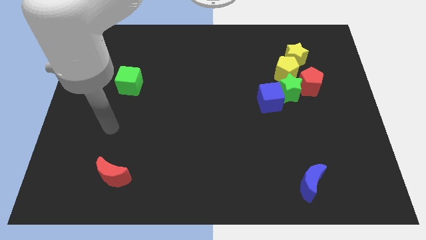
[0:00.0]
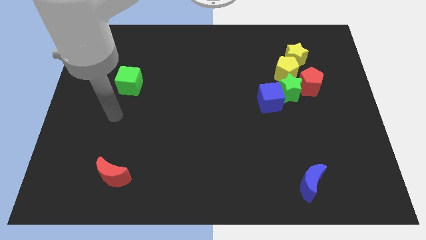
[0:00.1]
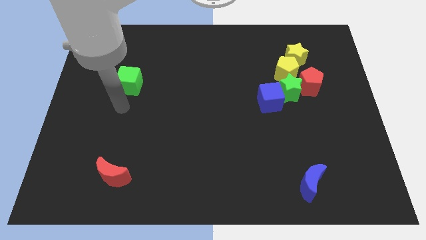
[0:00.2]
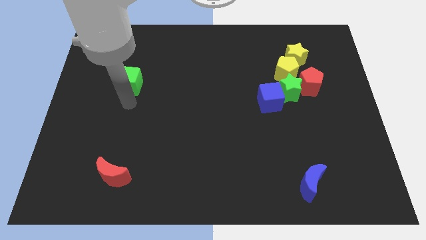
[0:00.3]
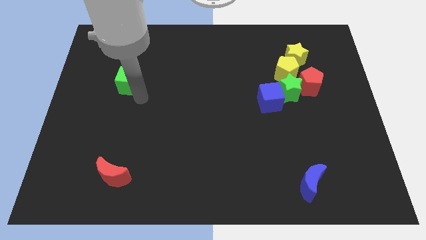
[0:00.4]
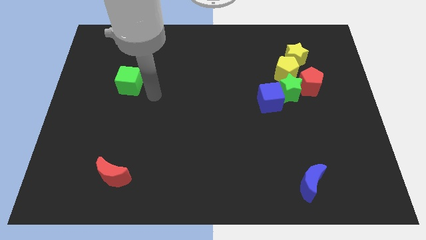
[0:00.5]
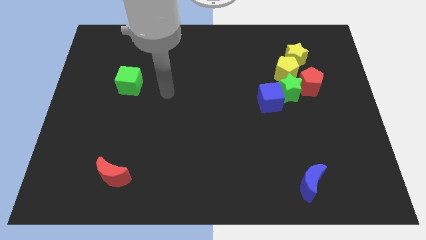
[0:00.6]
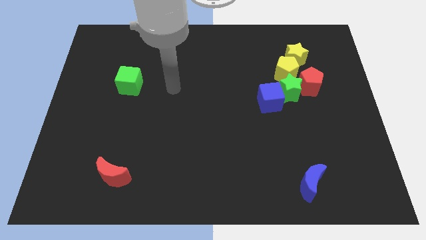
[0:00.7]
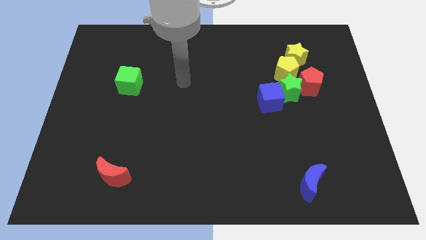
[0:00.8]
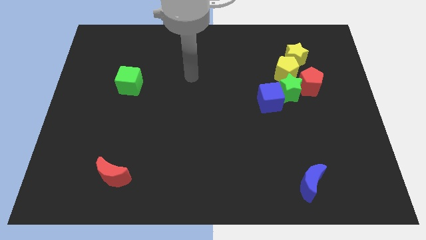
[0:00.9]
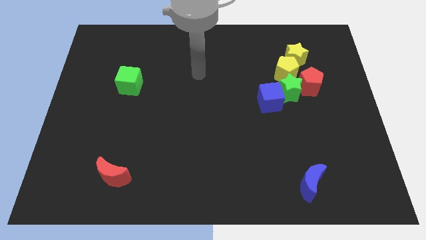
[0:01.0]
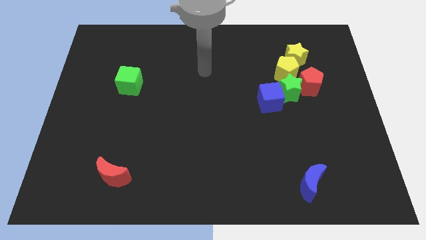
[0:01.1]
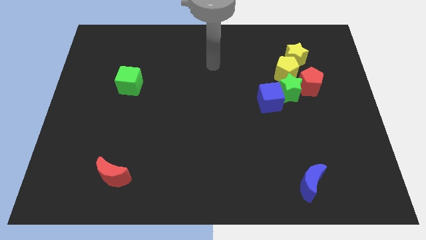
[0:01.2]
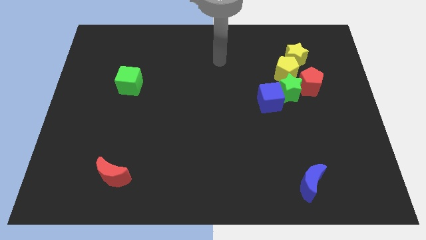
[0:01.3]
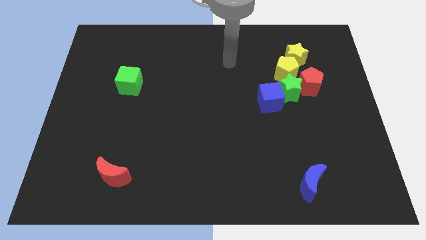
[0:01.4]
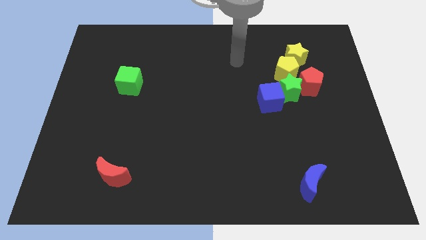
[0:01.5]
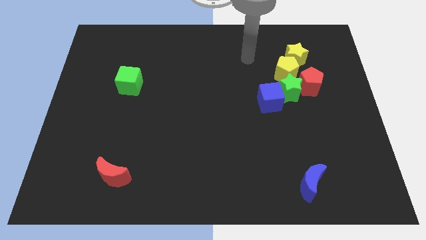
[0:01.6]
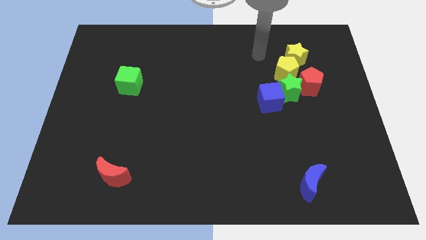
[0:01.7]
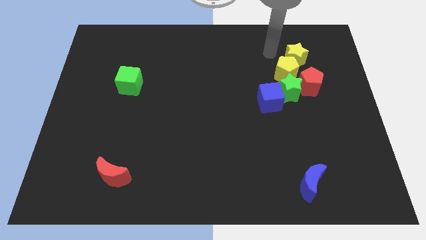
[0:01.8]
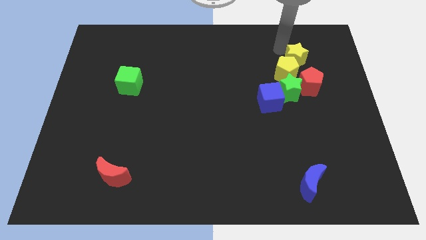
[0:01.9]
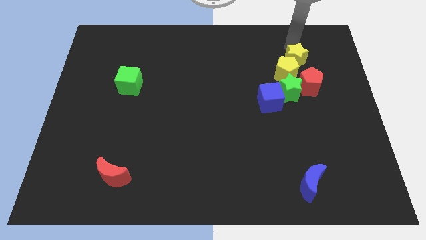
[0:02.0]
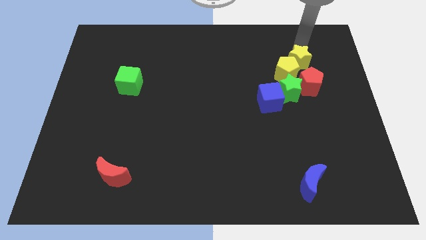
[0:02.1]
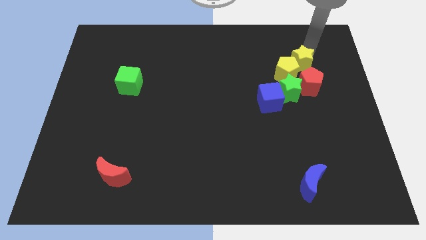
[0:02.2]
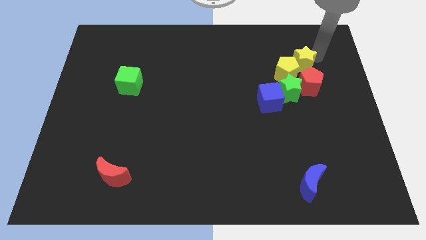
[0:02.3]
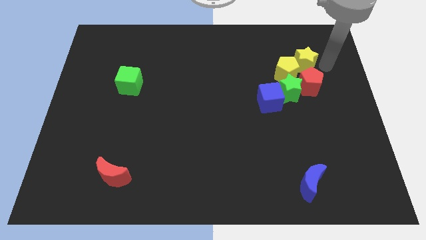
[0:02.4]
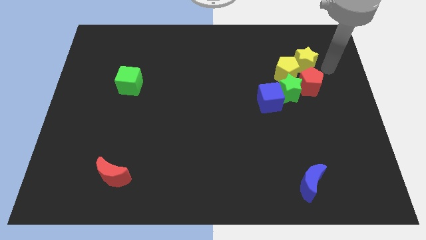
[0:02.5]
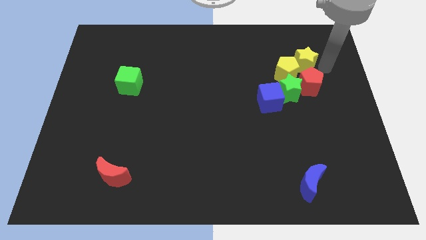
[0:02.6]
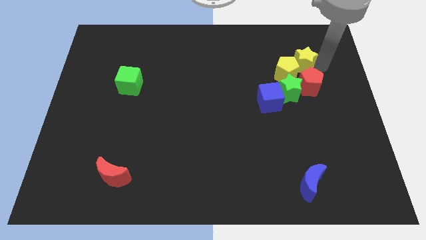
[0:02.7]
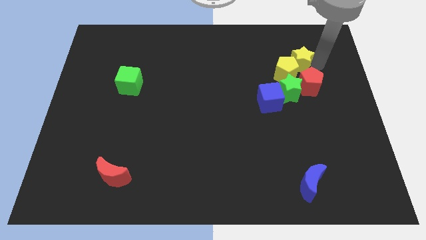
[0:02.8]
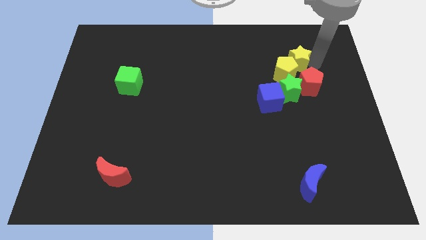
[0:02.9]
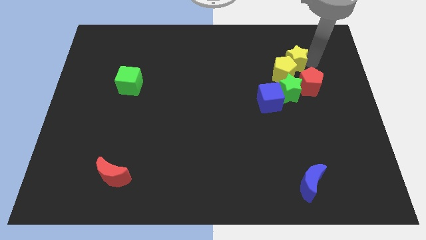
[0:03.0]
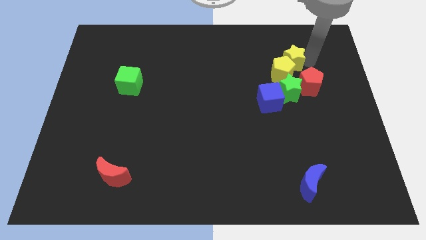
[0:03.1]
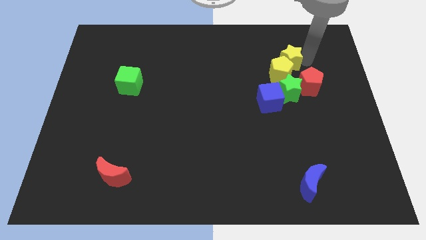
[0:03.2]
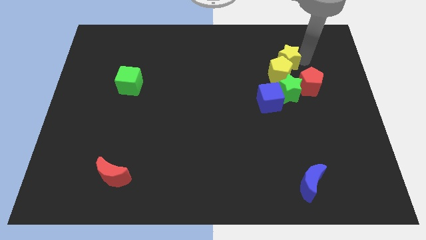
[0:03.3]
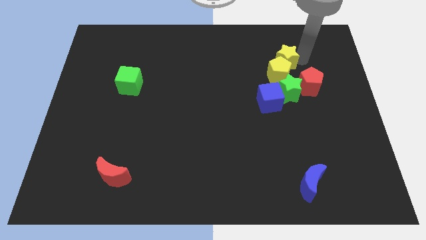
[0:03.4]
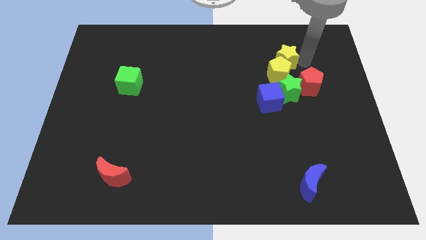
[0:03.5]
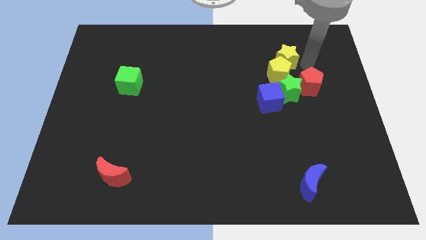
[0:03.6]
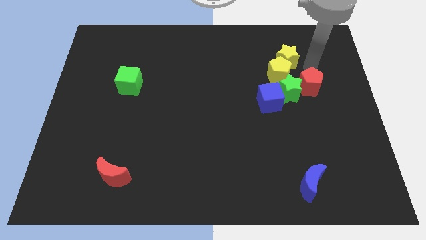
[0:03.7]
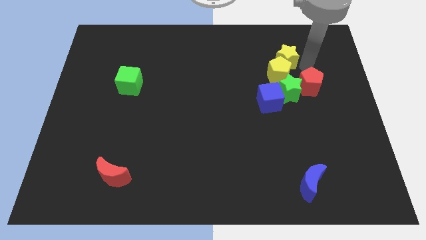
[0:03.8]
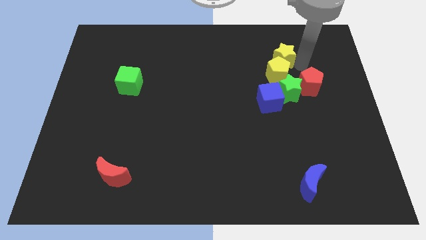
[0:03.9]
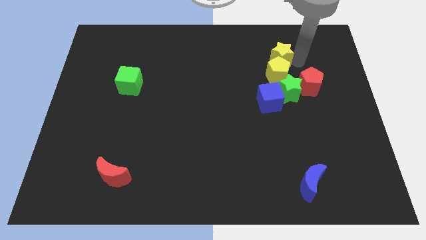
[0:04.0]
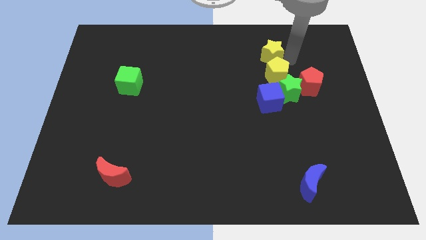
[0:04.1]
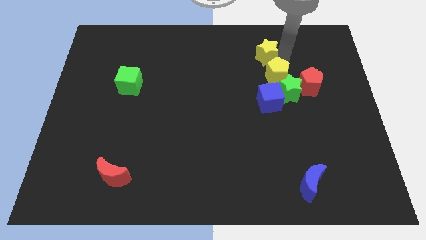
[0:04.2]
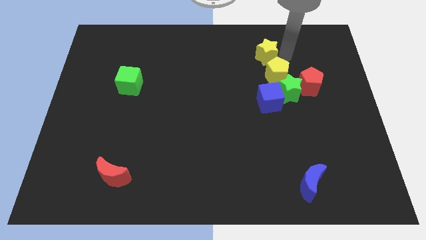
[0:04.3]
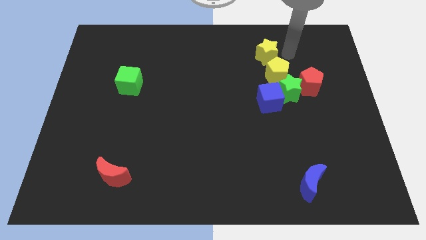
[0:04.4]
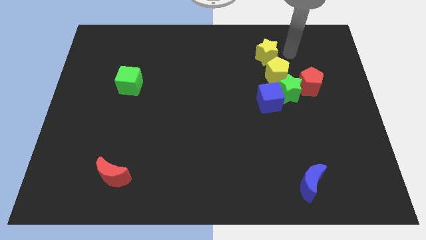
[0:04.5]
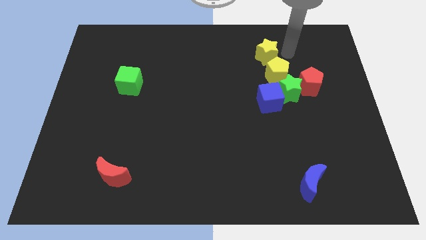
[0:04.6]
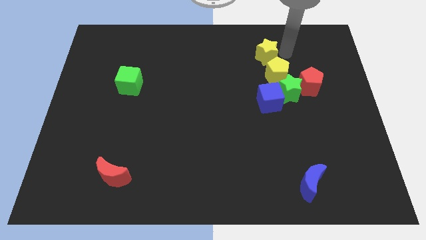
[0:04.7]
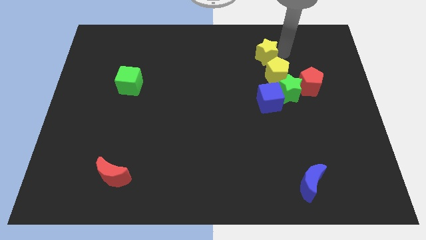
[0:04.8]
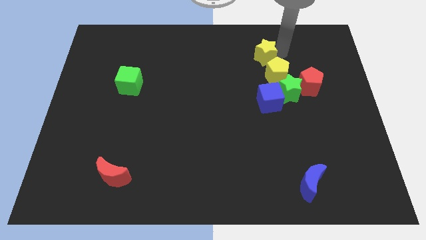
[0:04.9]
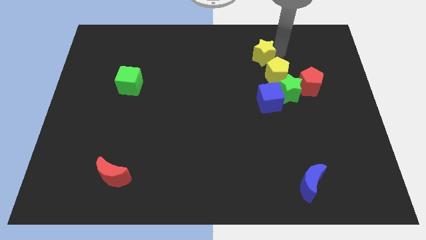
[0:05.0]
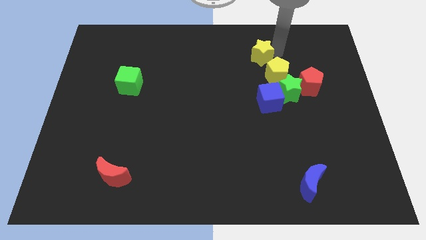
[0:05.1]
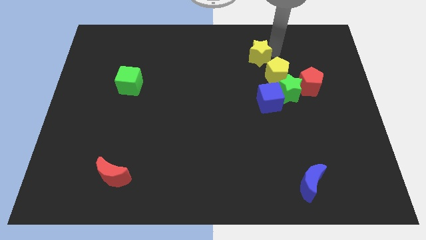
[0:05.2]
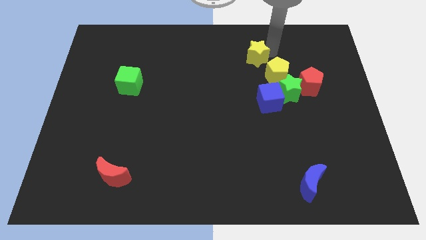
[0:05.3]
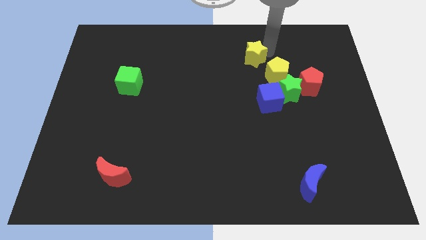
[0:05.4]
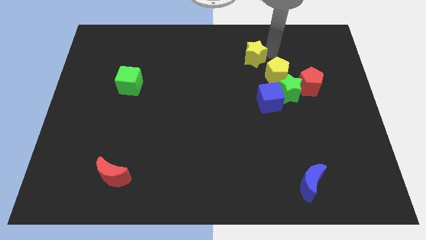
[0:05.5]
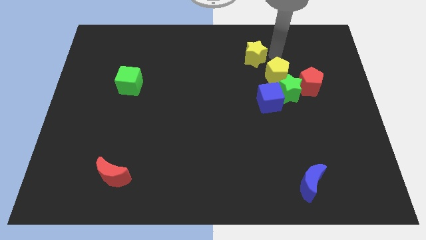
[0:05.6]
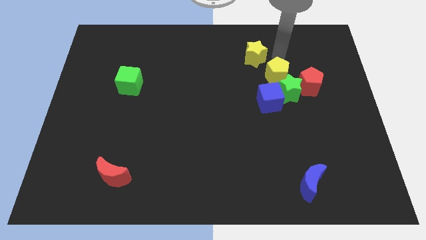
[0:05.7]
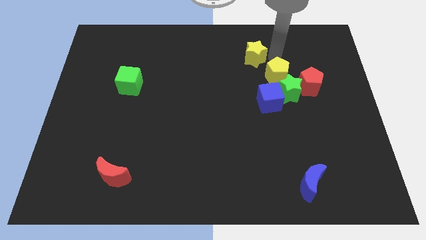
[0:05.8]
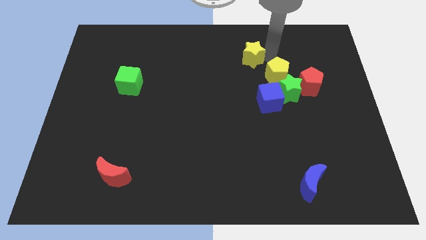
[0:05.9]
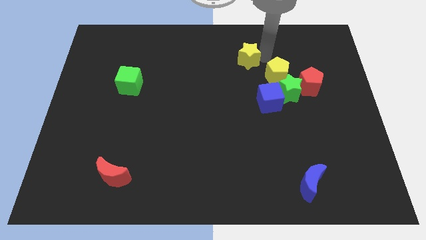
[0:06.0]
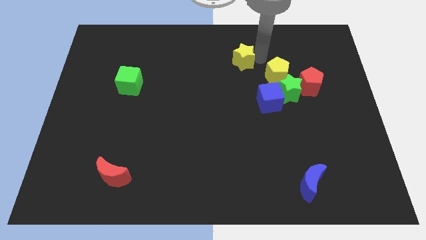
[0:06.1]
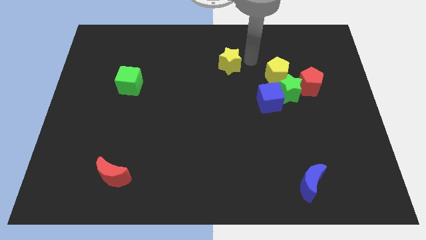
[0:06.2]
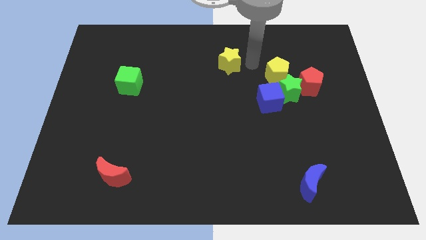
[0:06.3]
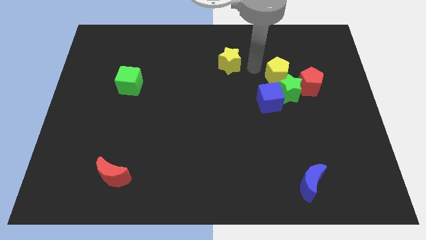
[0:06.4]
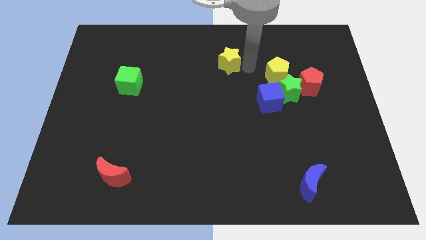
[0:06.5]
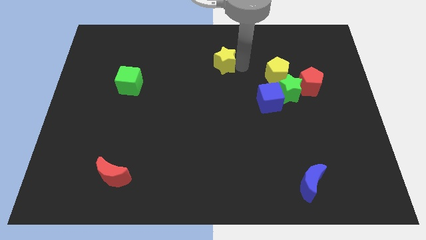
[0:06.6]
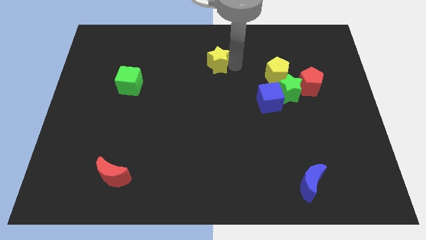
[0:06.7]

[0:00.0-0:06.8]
push the yellow star left

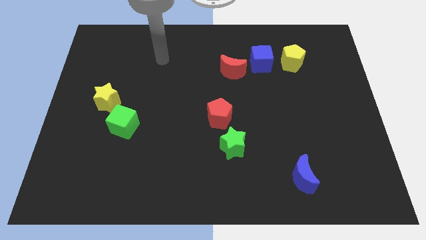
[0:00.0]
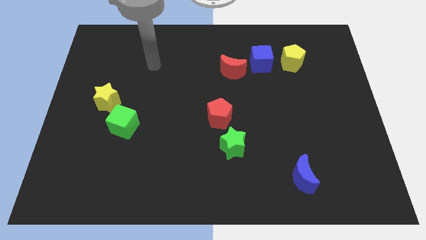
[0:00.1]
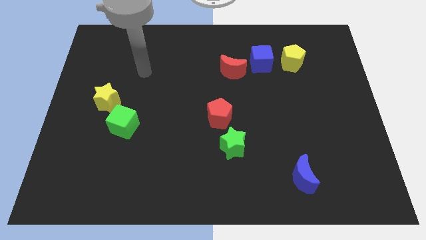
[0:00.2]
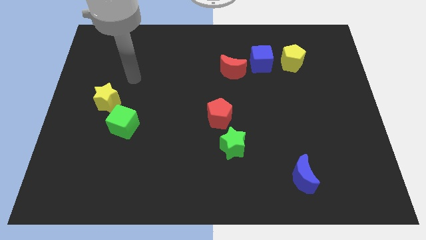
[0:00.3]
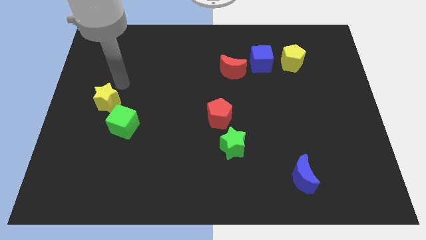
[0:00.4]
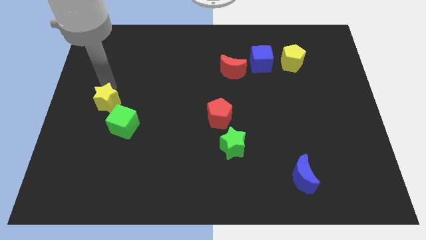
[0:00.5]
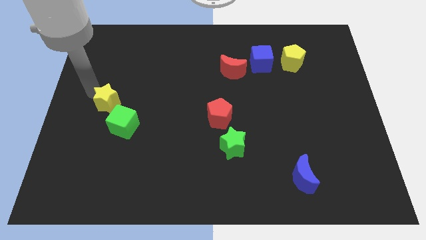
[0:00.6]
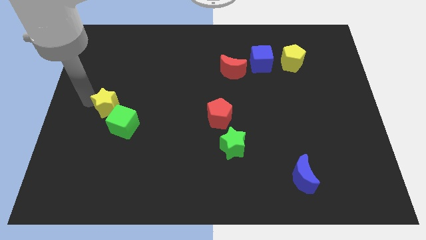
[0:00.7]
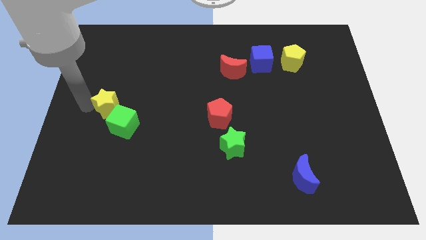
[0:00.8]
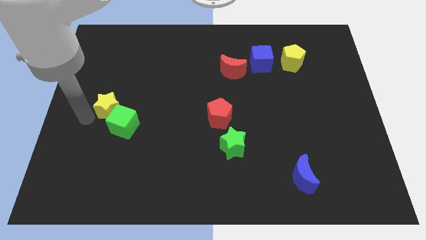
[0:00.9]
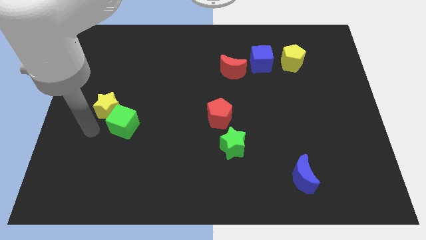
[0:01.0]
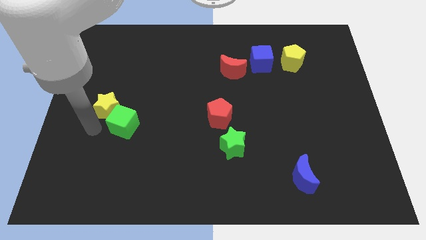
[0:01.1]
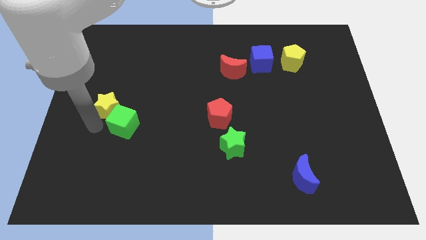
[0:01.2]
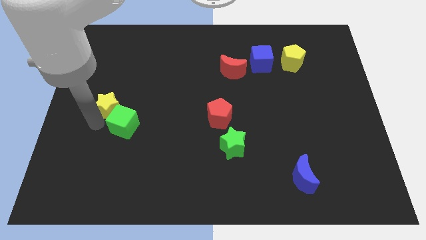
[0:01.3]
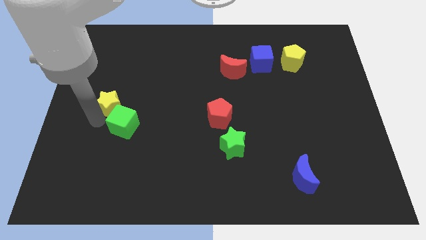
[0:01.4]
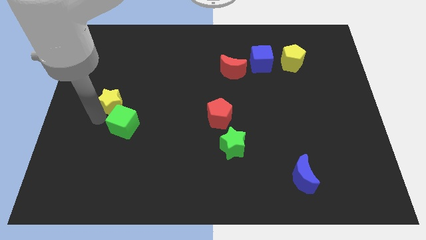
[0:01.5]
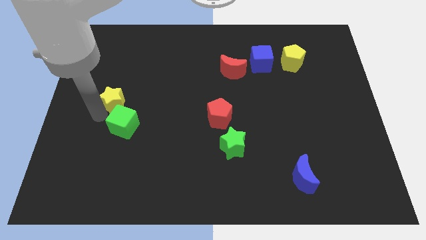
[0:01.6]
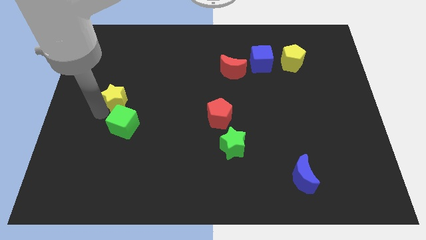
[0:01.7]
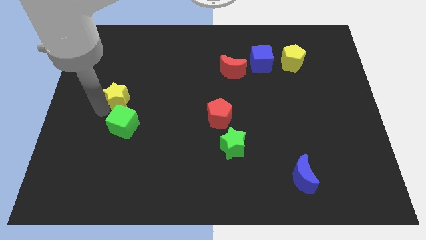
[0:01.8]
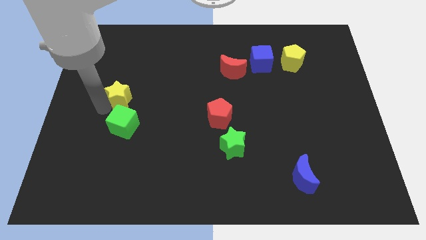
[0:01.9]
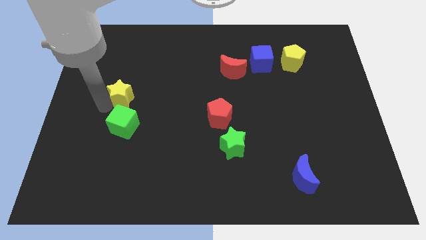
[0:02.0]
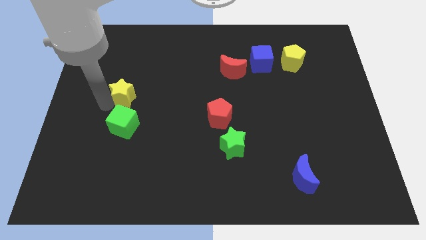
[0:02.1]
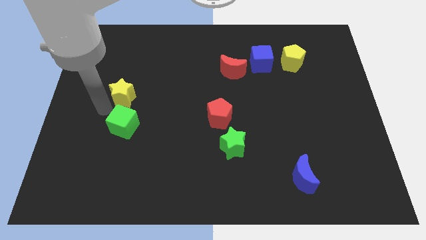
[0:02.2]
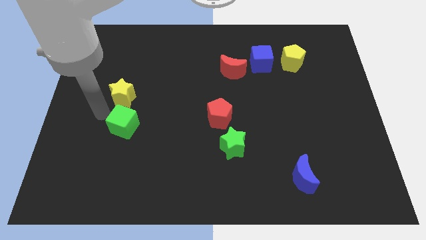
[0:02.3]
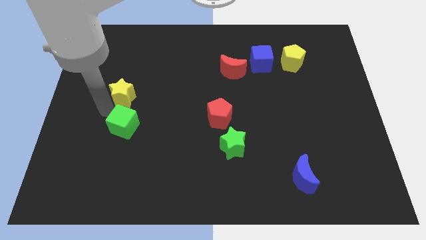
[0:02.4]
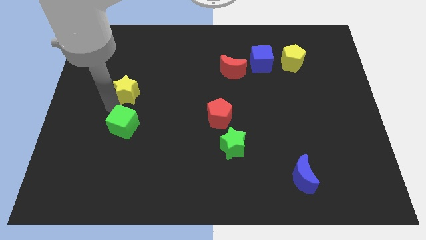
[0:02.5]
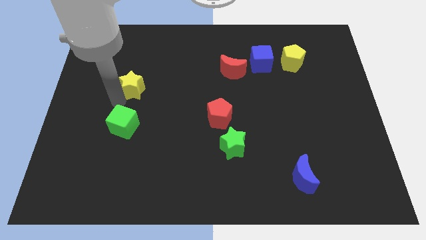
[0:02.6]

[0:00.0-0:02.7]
push the yellow star a little up and right
